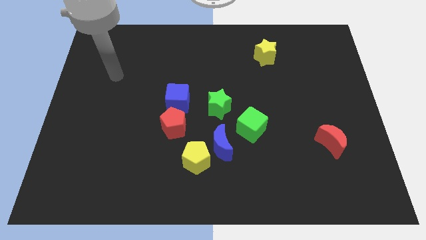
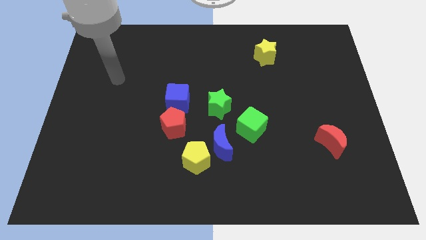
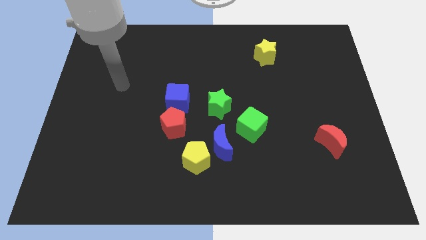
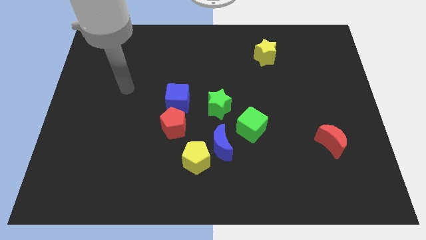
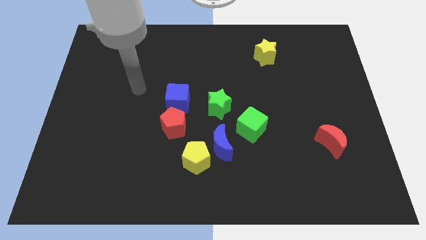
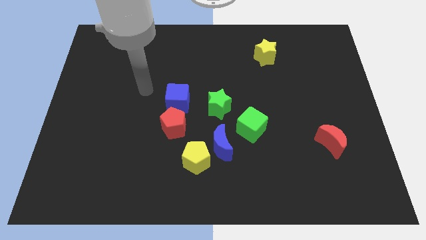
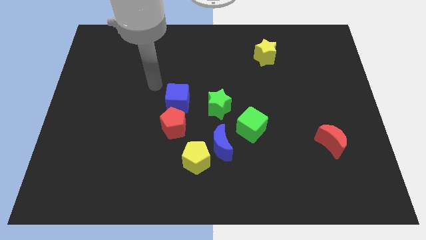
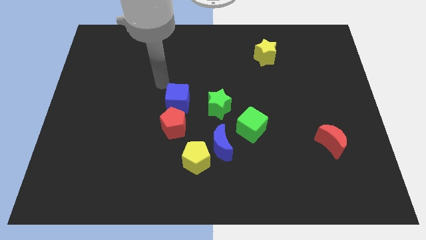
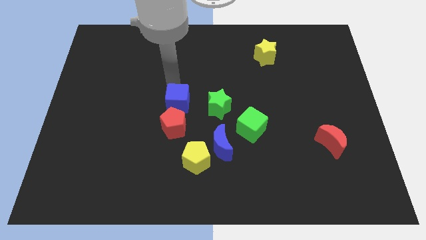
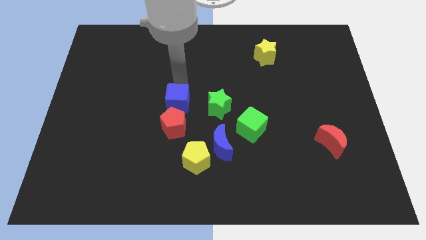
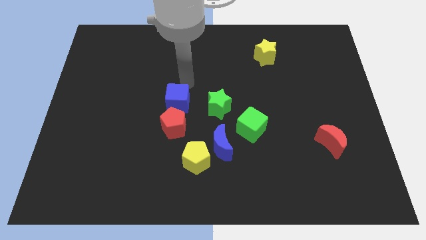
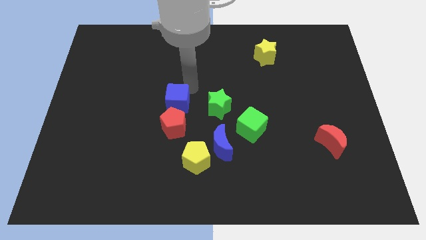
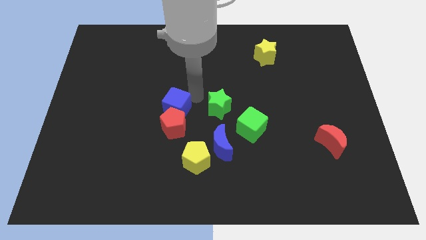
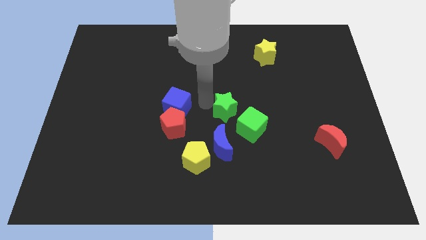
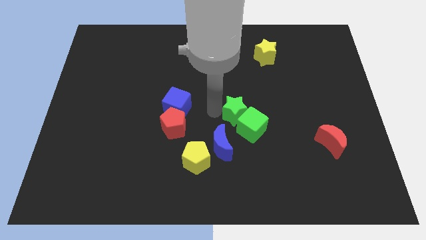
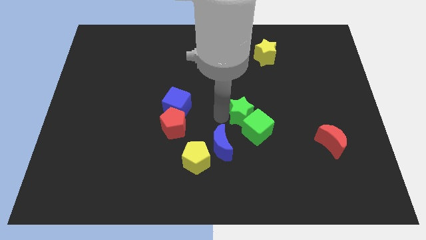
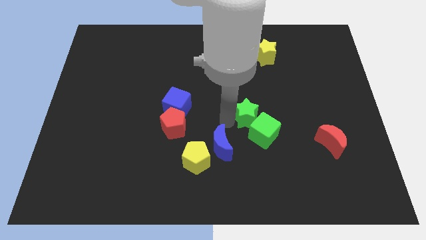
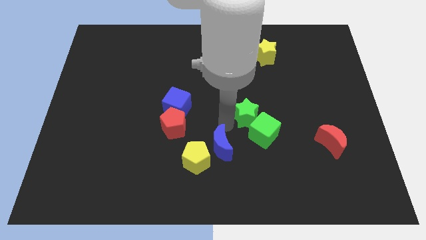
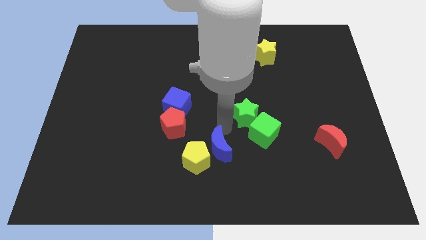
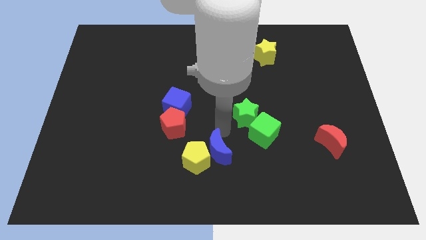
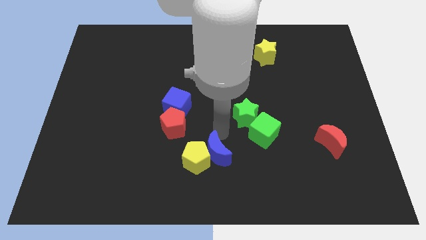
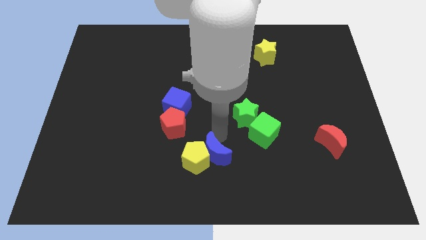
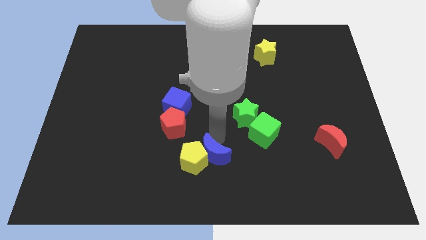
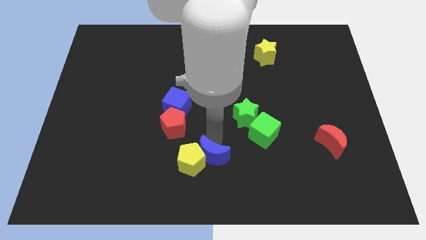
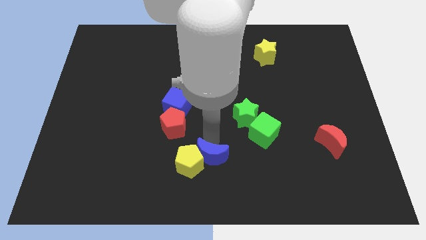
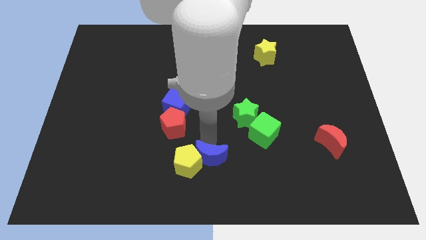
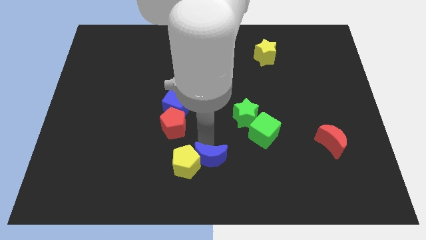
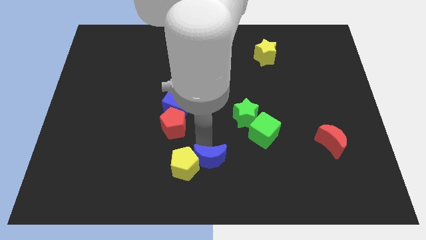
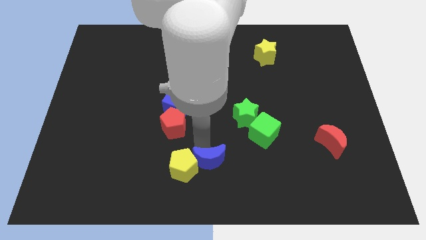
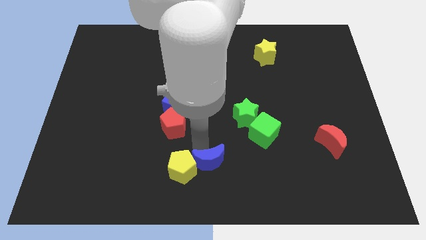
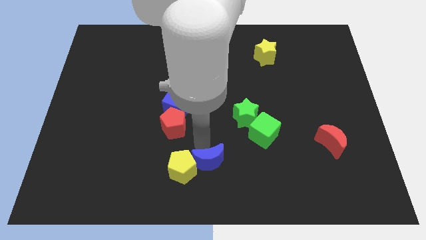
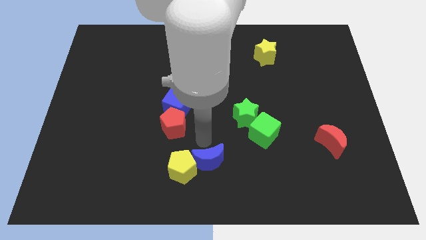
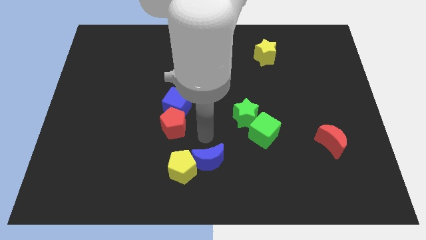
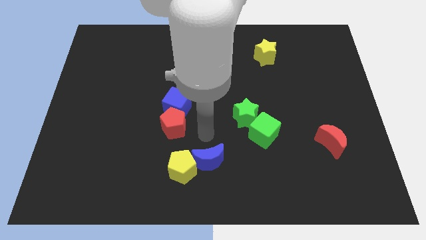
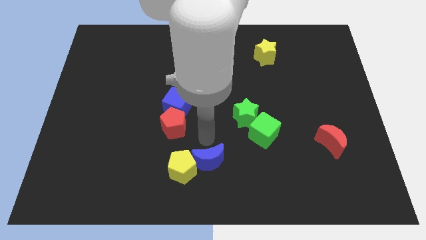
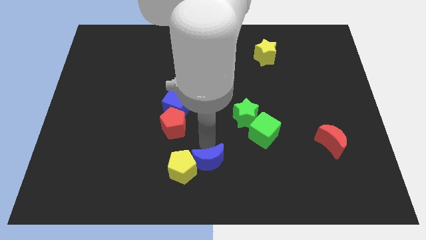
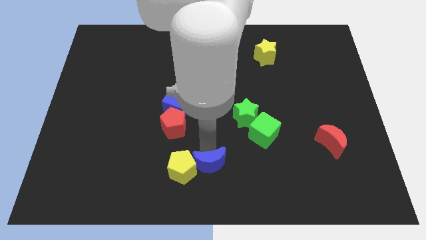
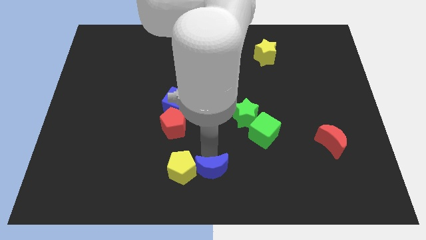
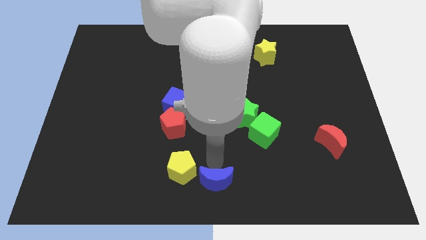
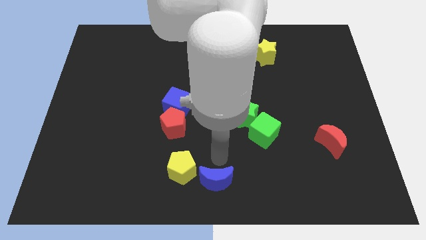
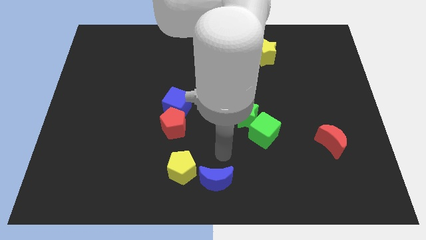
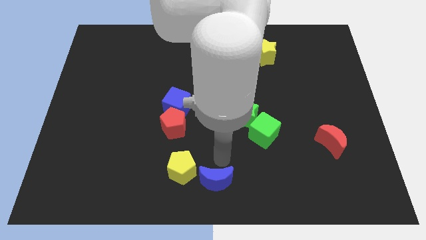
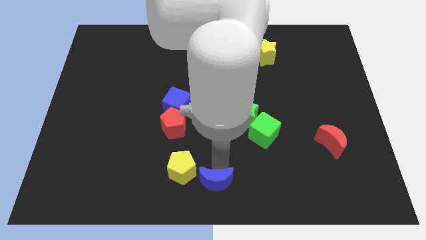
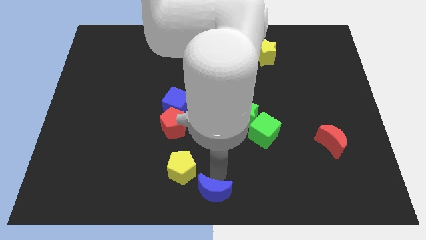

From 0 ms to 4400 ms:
move the blue moon away from the yellow pentagon and green cube

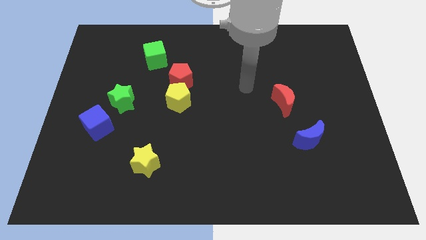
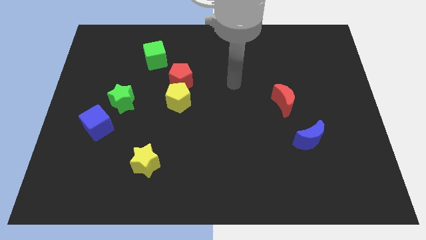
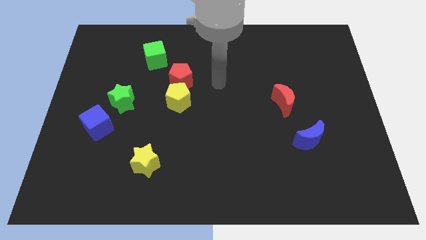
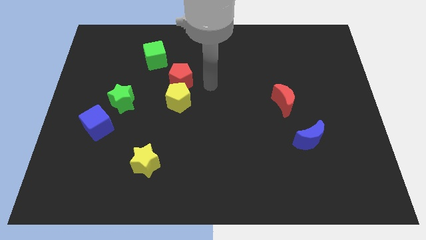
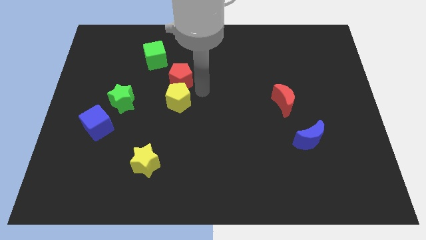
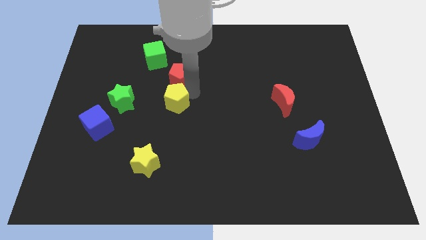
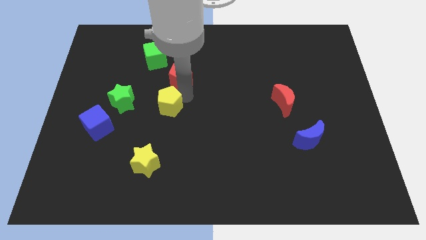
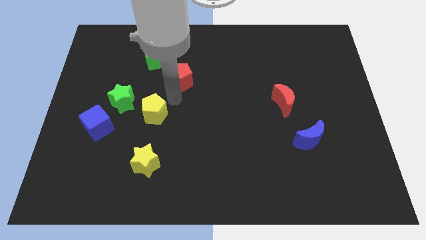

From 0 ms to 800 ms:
pull the red pentagon apart from the yellow pentagon

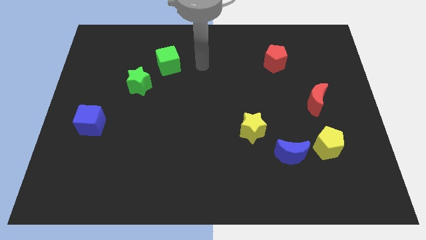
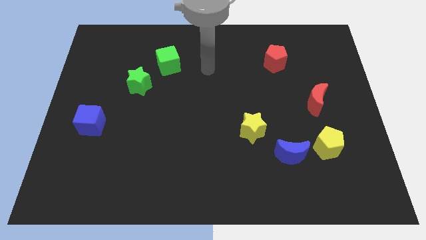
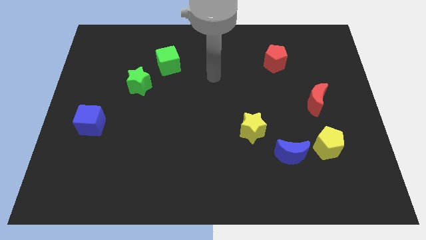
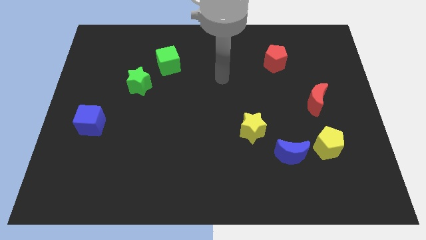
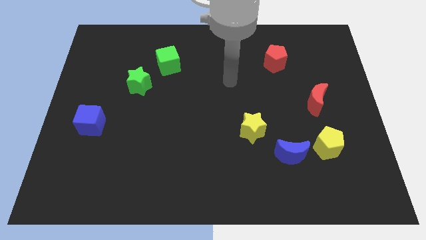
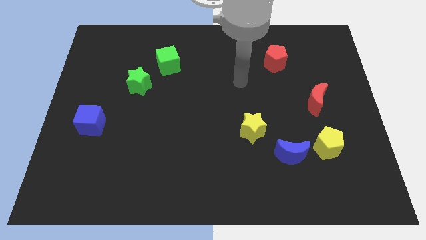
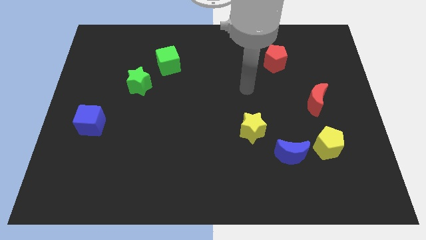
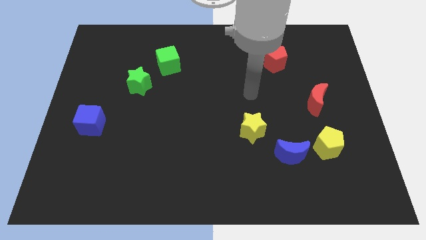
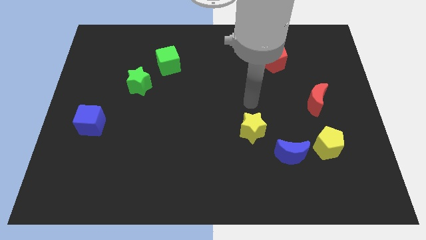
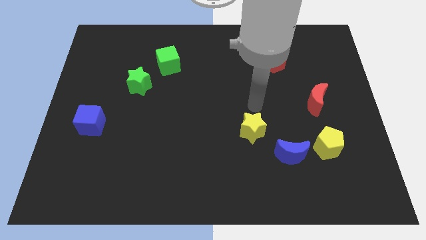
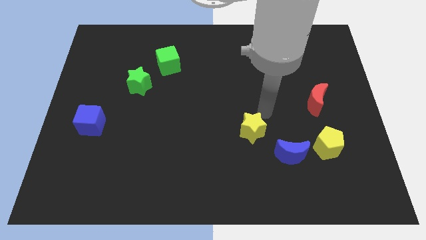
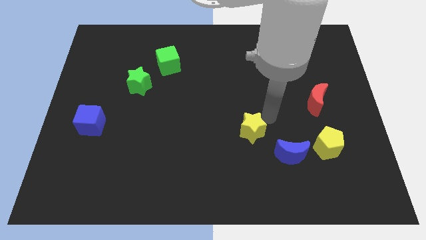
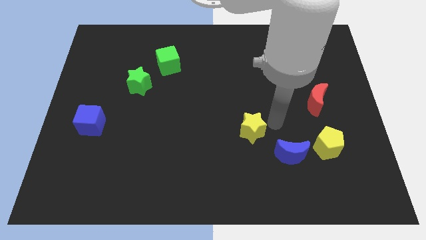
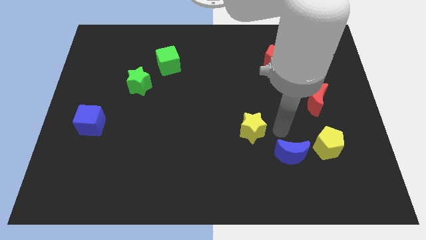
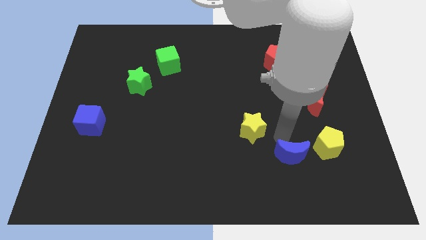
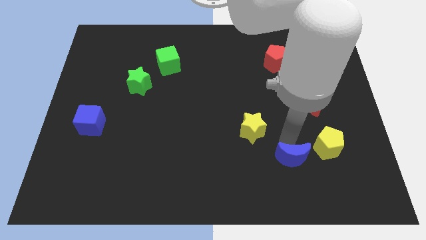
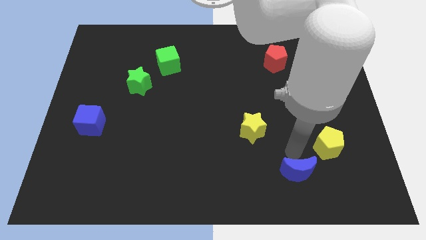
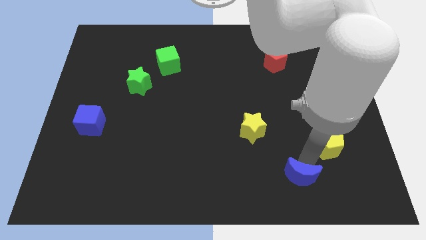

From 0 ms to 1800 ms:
separate the yellow pentagon from the blue moon

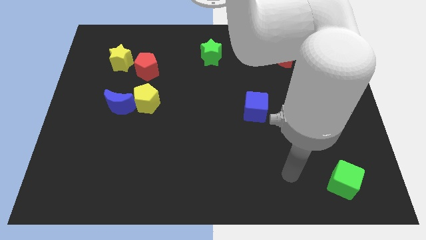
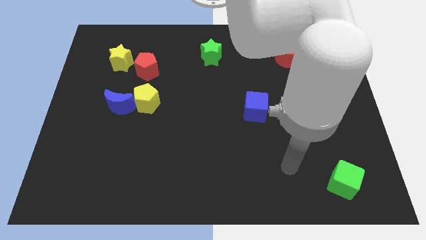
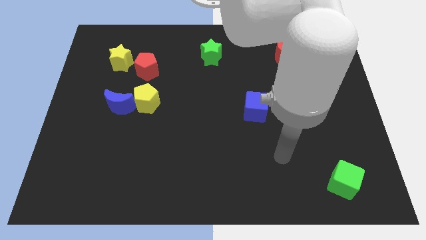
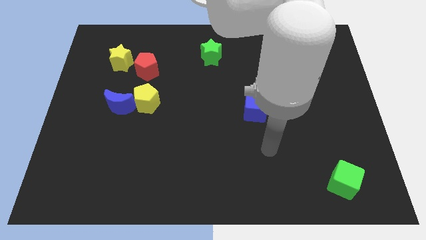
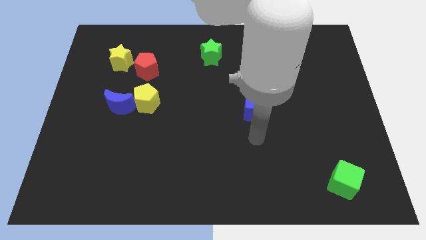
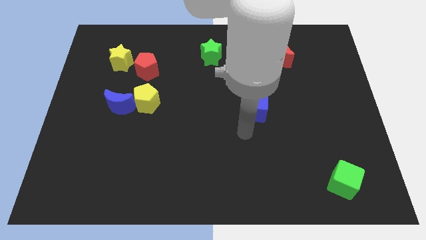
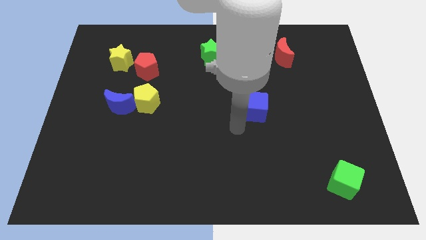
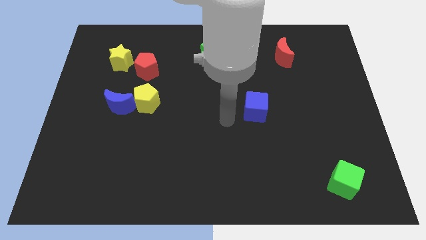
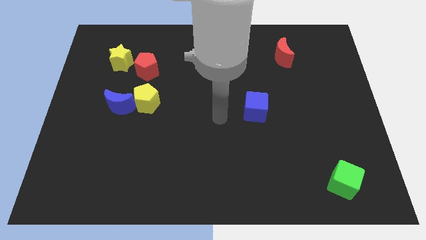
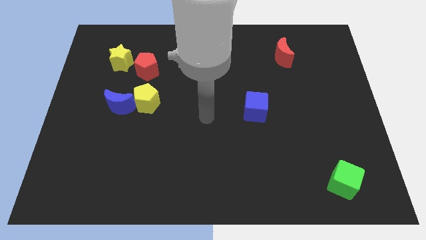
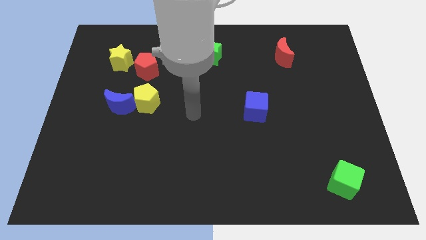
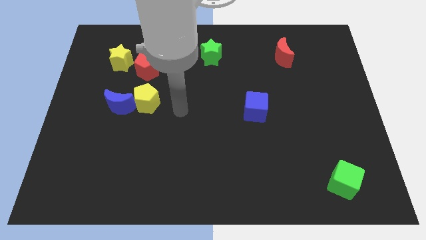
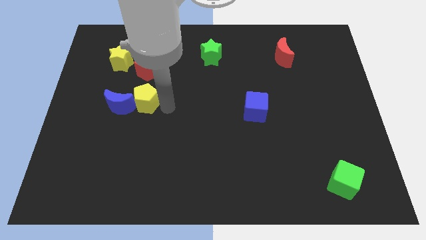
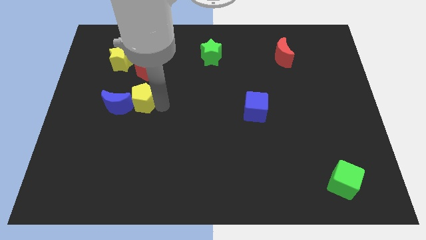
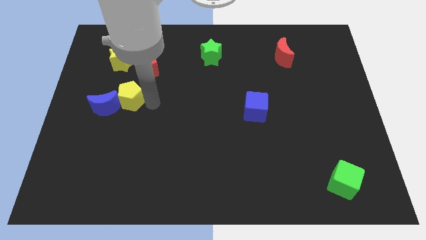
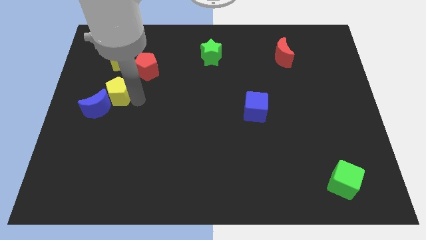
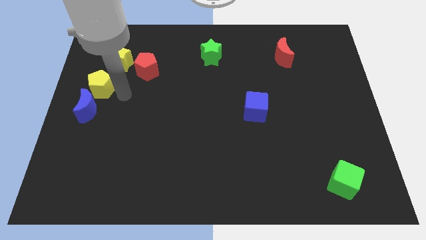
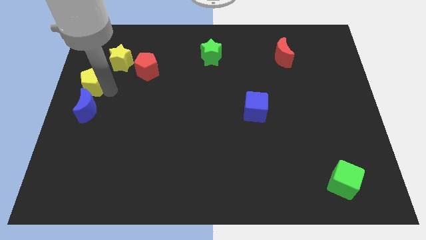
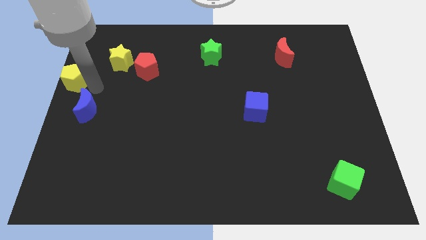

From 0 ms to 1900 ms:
separate the blue moon from the yellow pentagon

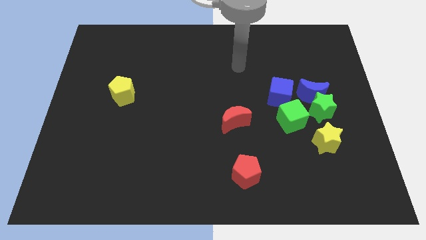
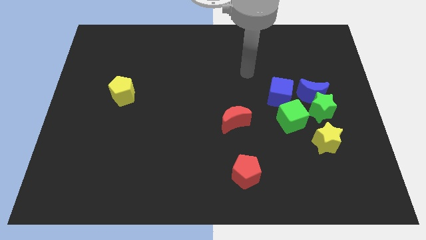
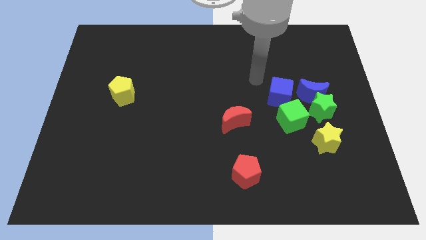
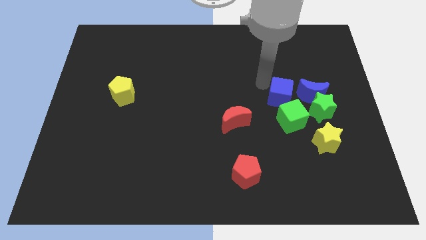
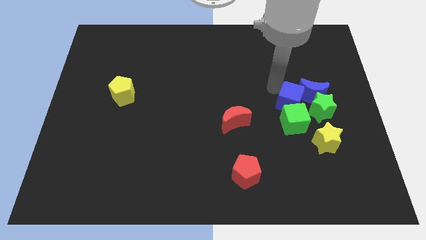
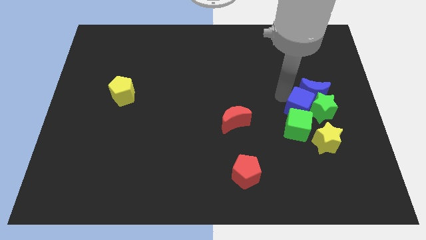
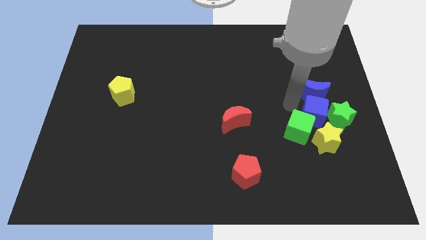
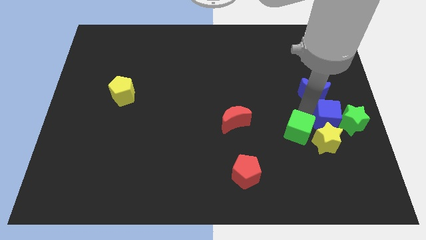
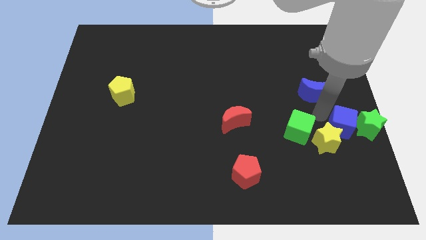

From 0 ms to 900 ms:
pull the blue moon apart from the green star, blue cube, and green cube
